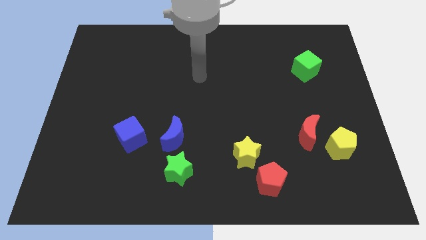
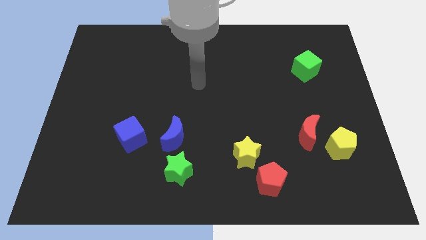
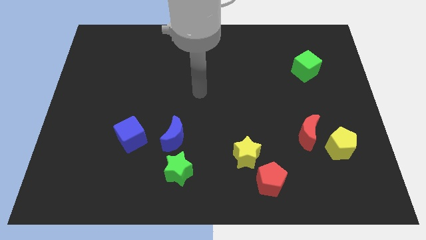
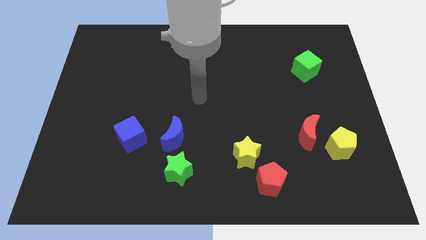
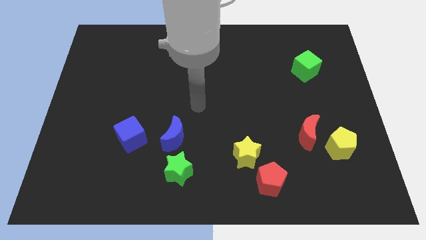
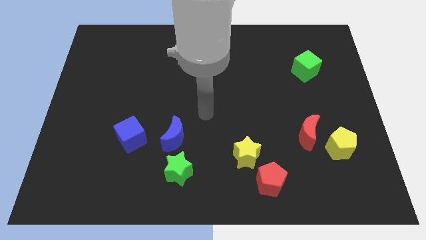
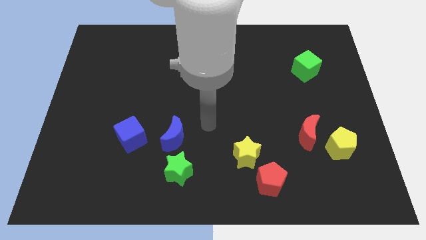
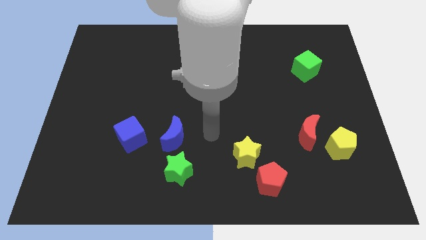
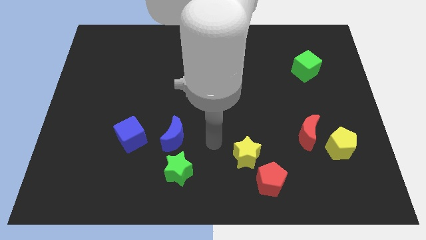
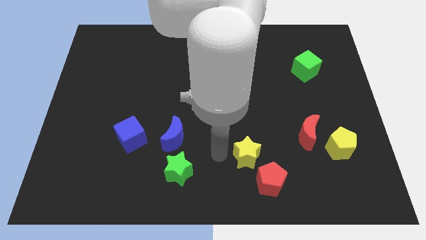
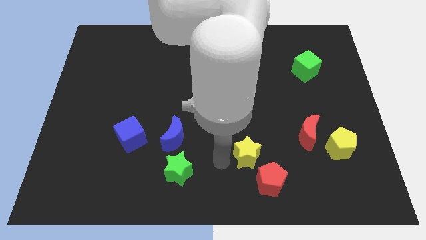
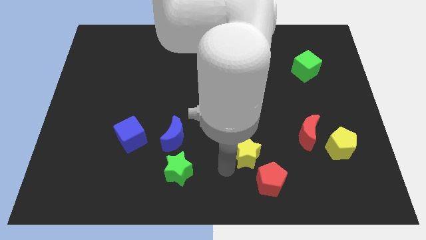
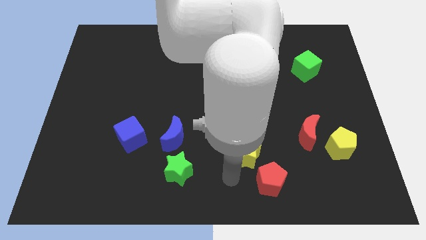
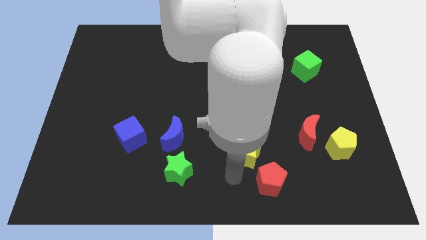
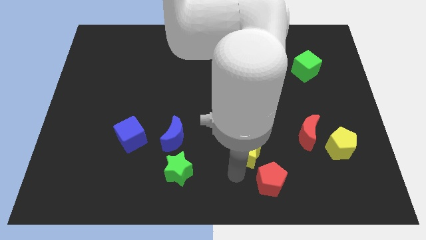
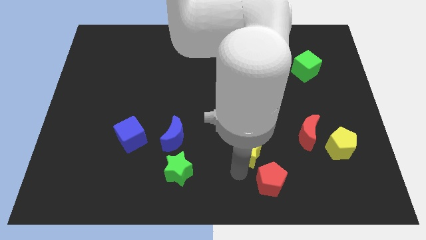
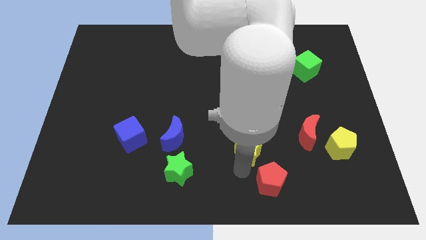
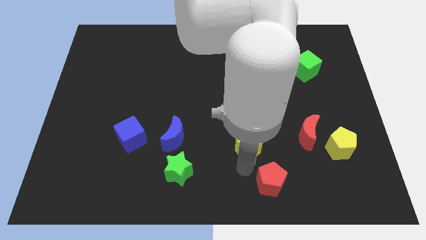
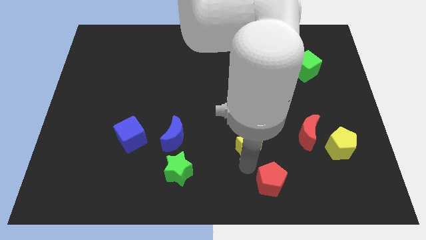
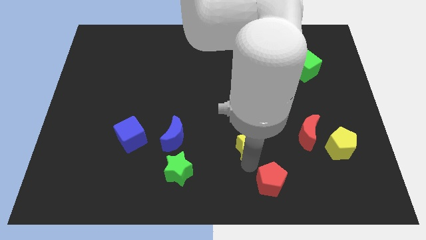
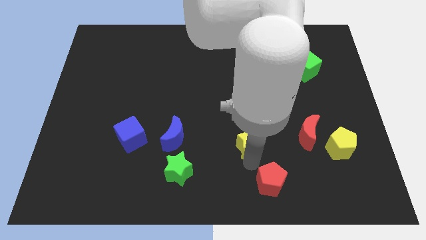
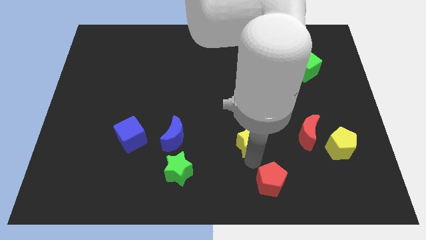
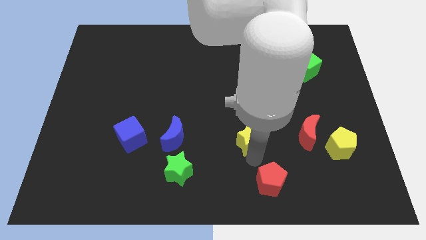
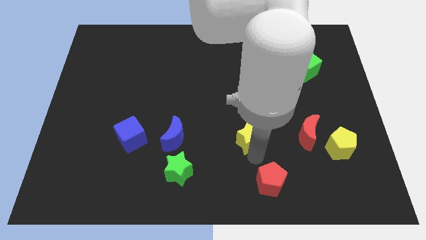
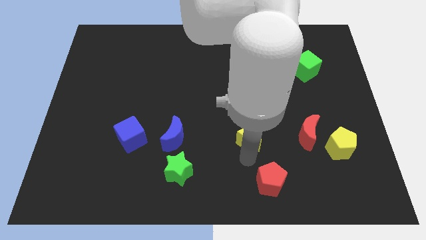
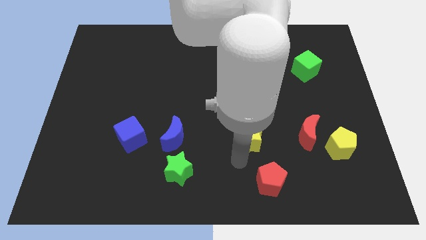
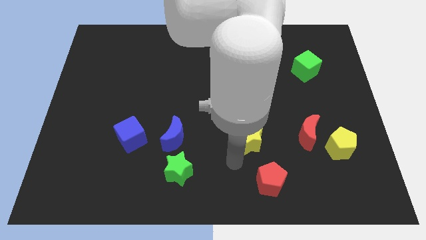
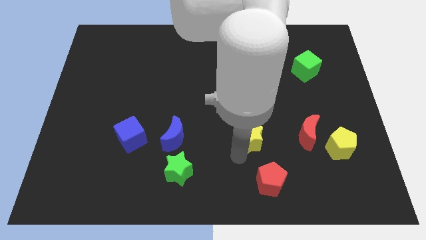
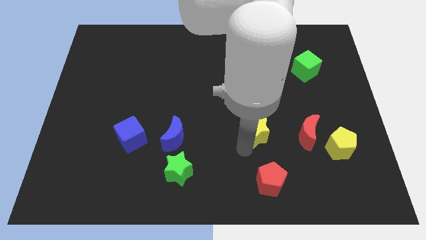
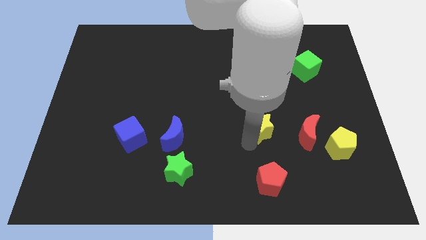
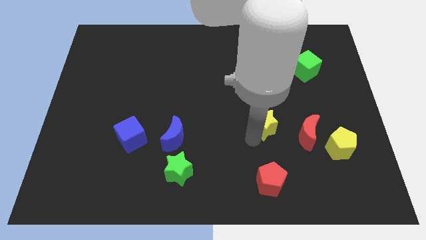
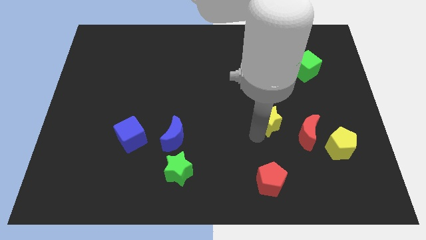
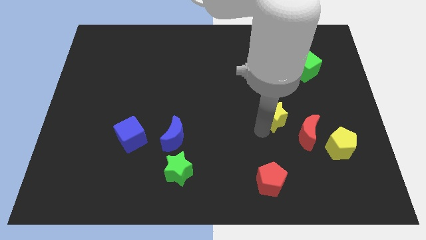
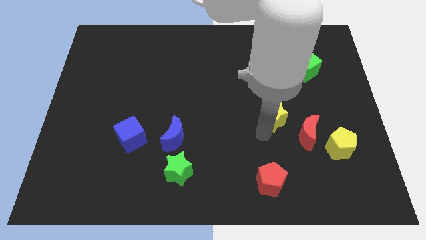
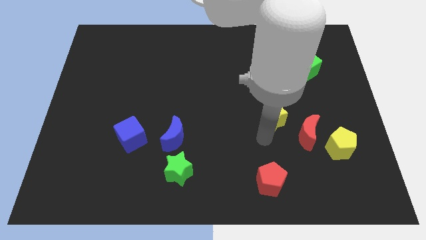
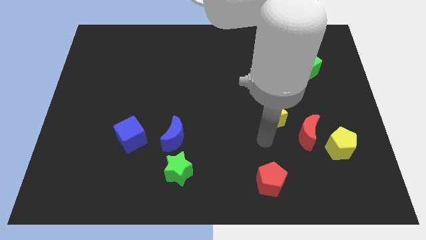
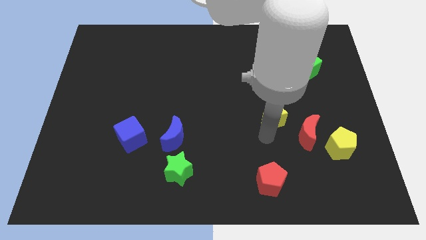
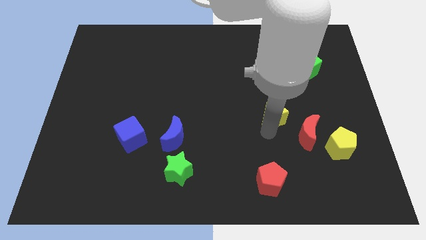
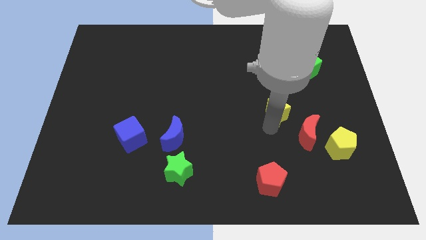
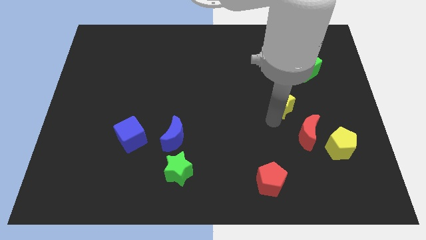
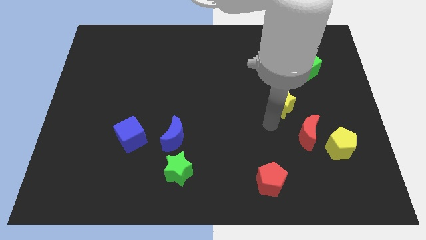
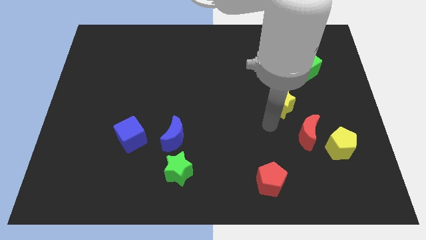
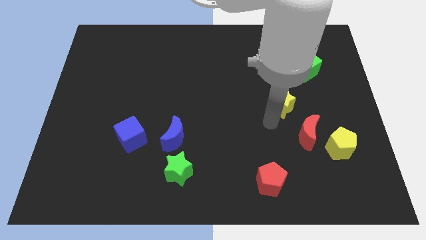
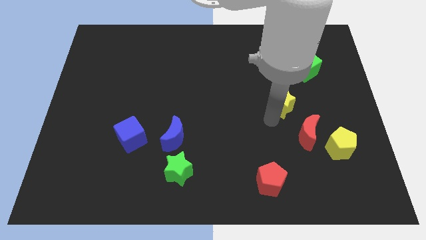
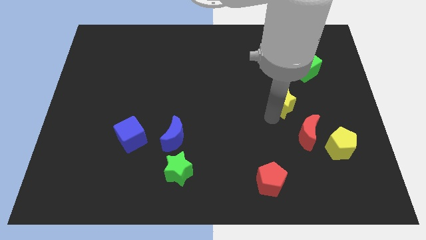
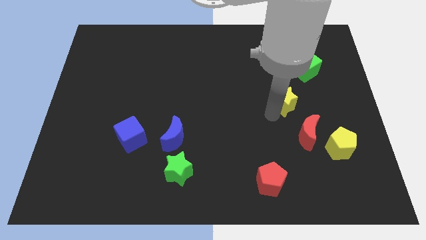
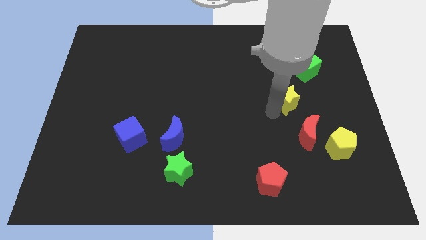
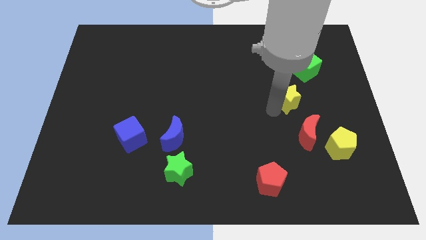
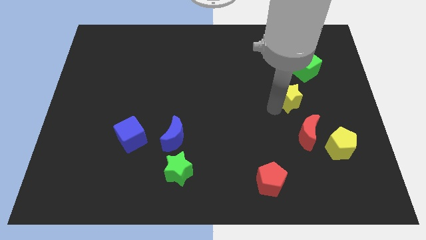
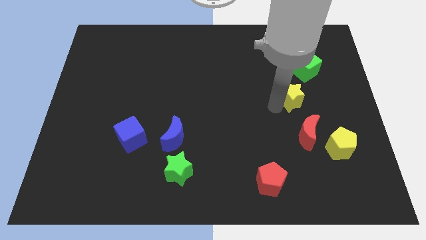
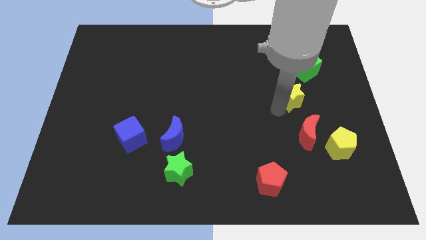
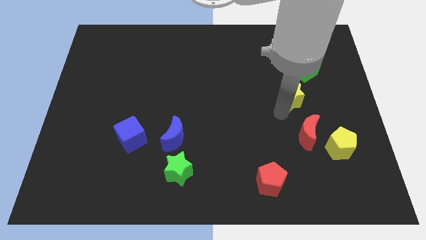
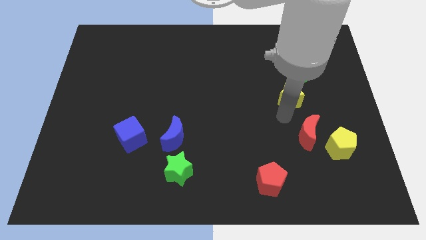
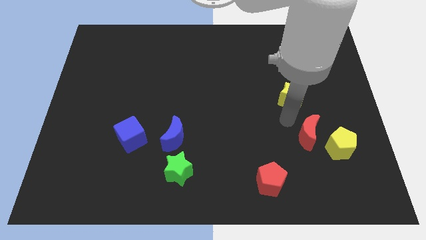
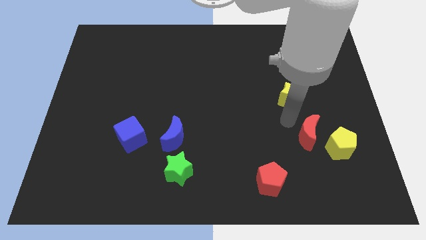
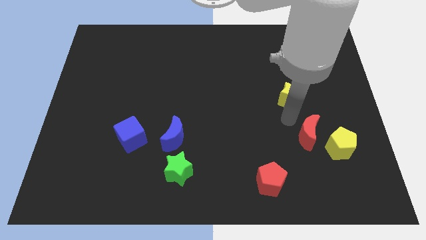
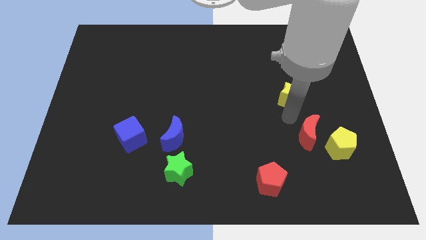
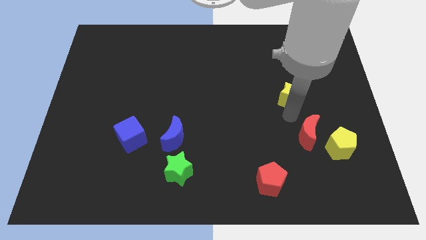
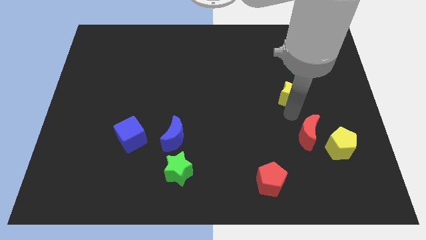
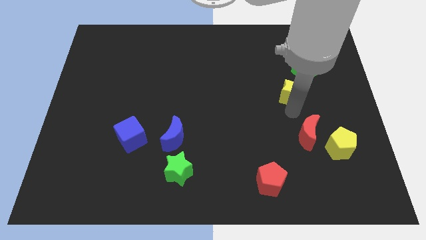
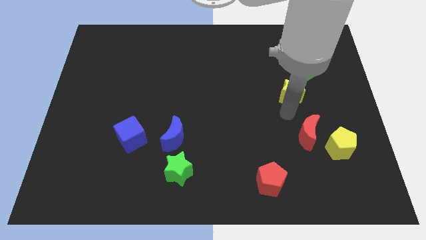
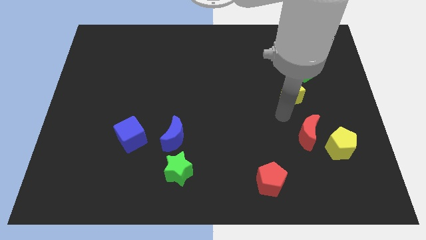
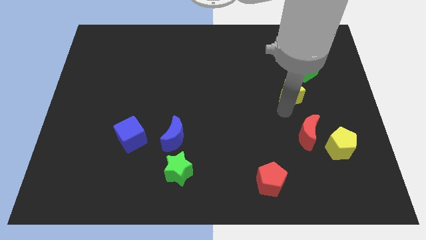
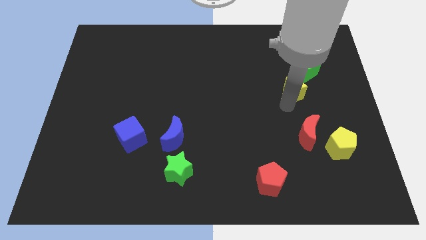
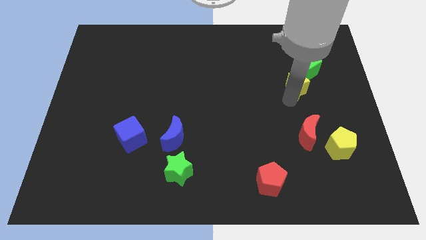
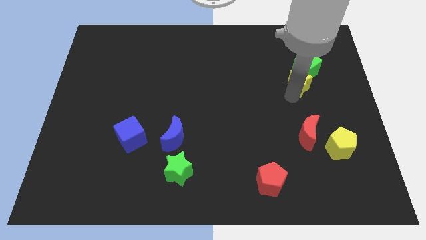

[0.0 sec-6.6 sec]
push the yellow star towards the green cube

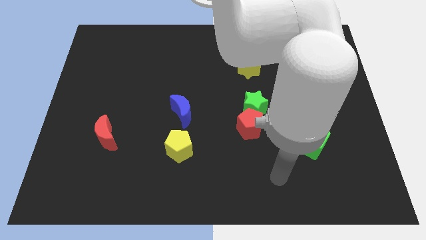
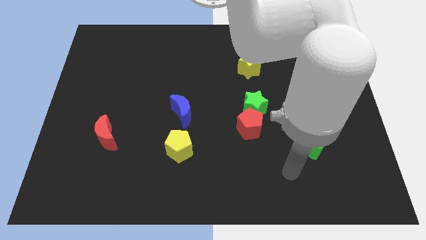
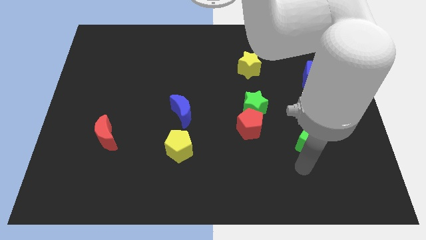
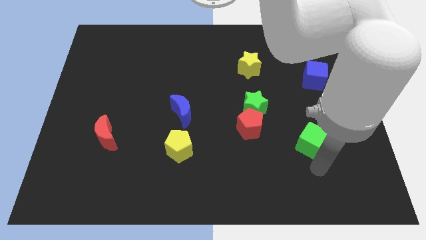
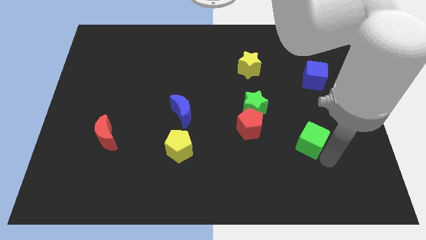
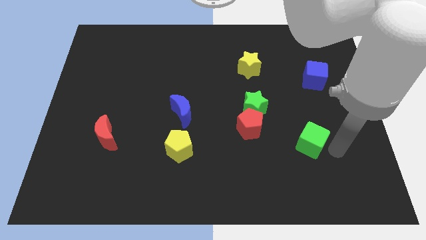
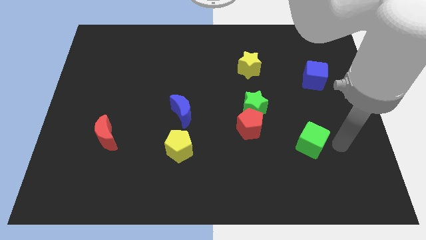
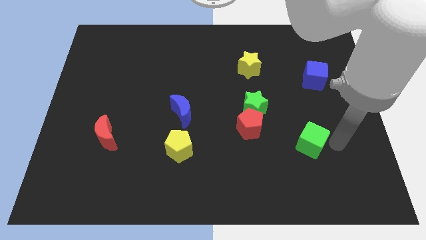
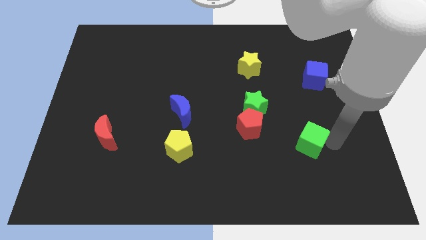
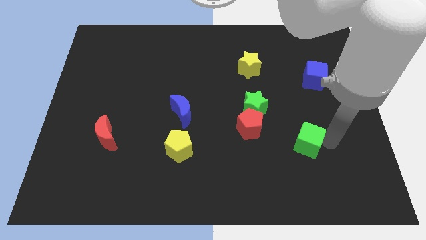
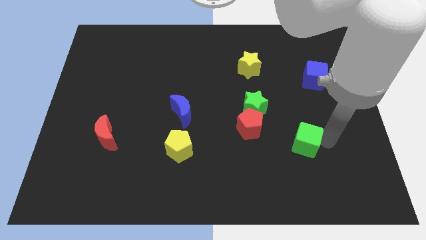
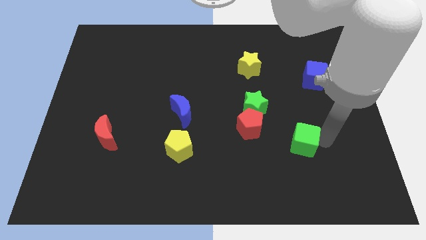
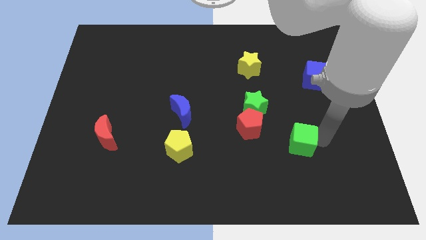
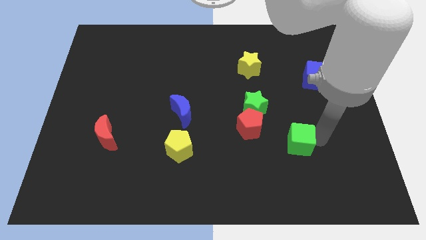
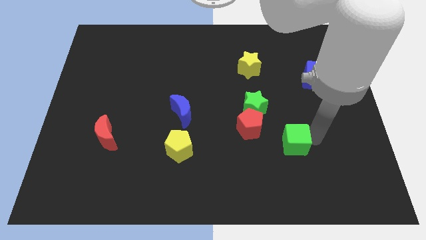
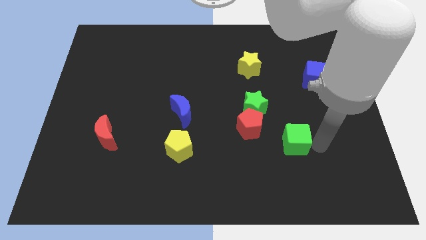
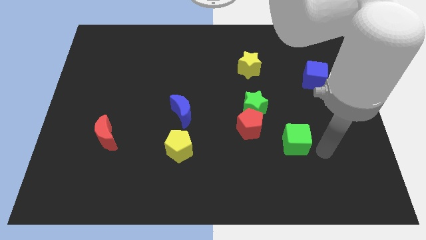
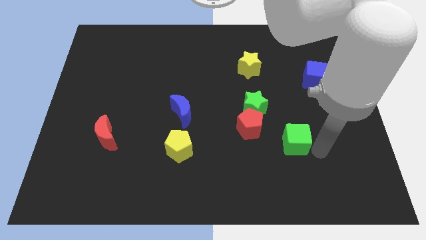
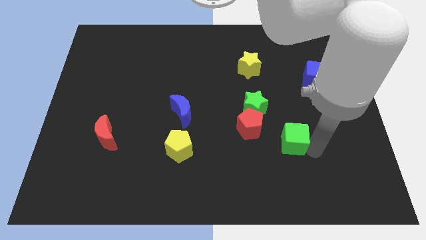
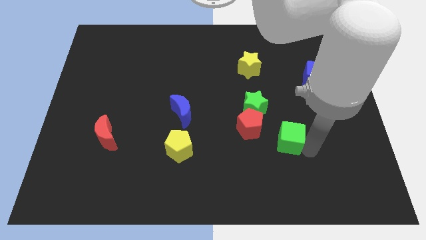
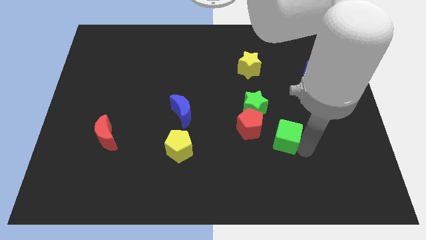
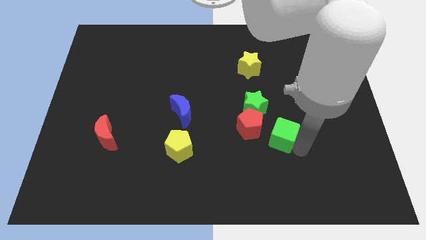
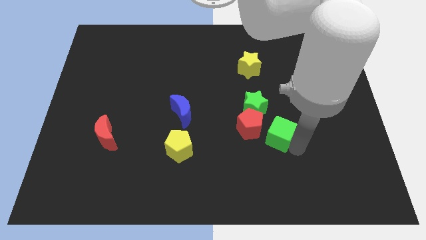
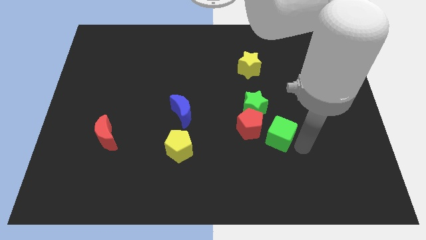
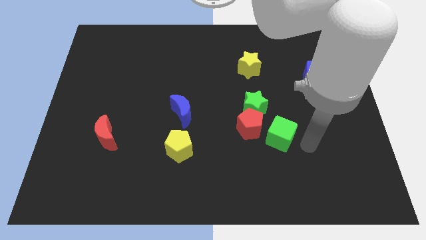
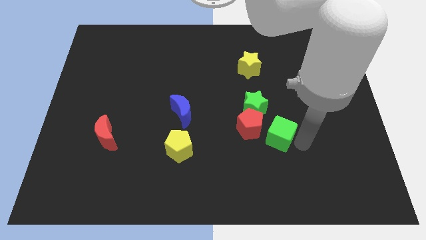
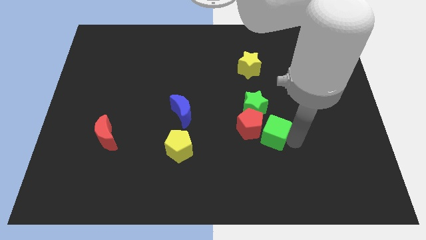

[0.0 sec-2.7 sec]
push the green cube next to the red pentagon
